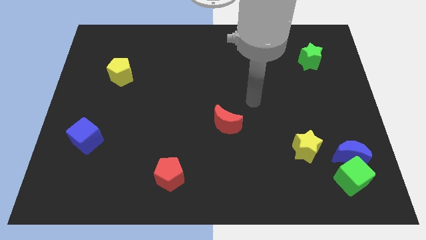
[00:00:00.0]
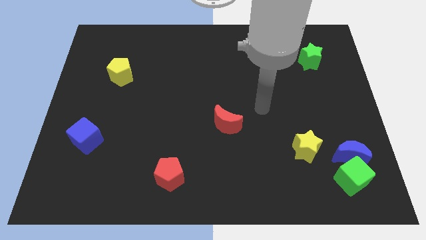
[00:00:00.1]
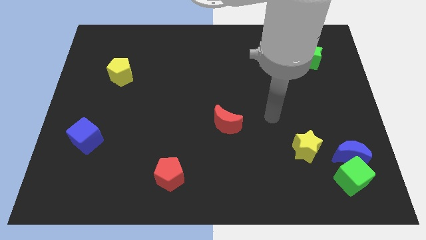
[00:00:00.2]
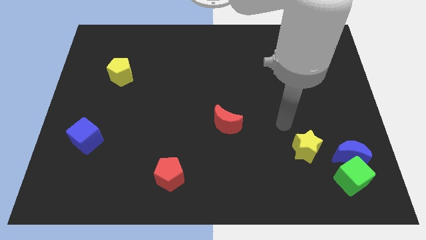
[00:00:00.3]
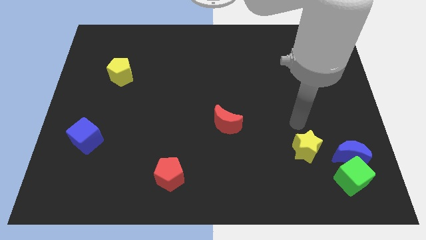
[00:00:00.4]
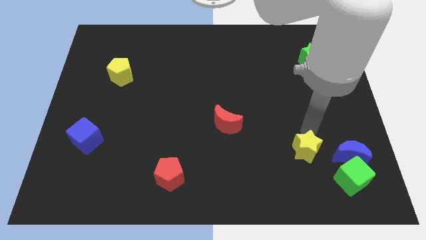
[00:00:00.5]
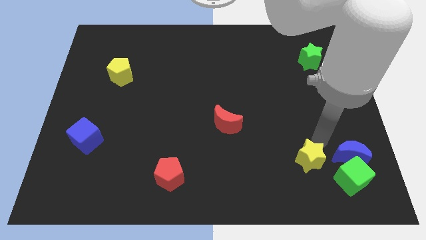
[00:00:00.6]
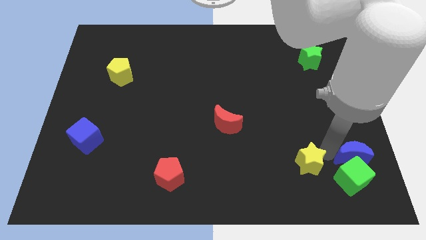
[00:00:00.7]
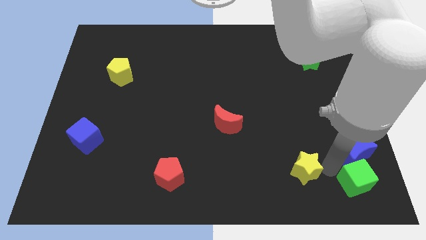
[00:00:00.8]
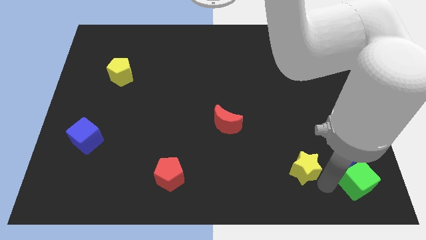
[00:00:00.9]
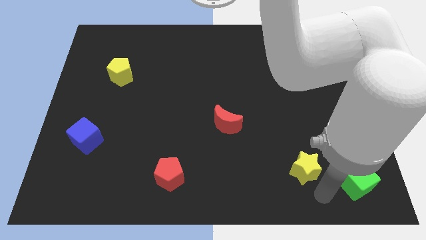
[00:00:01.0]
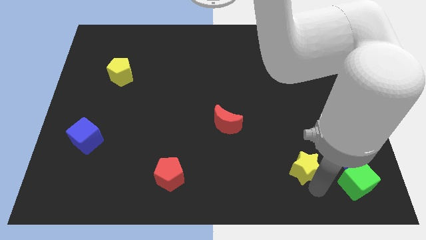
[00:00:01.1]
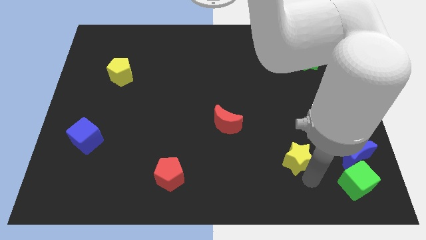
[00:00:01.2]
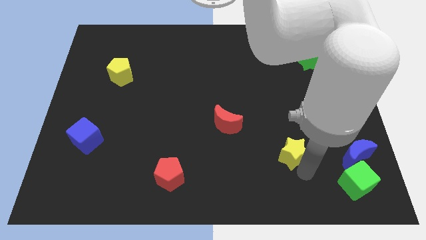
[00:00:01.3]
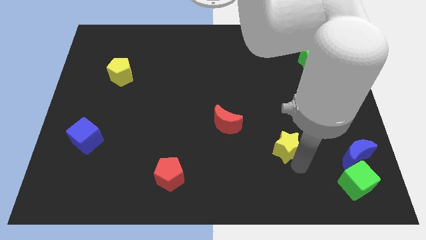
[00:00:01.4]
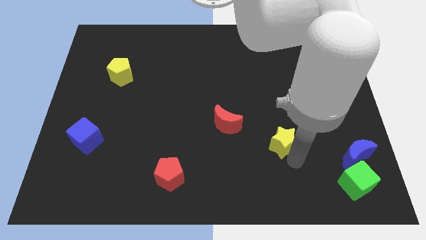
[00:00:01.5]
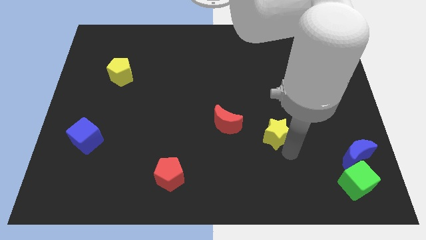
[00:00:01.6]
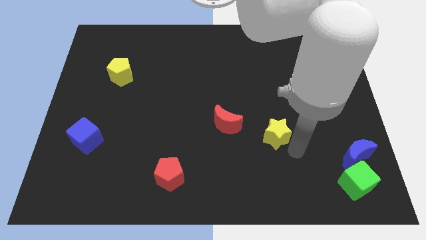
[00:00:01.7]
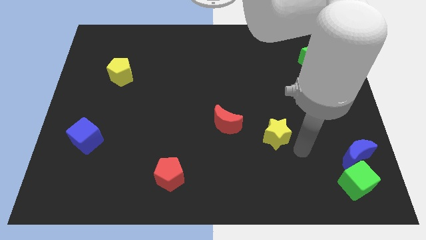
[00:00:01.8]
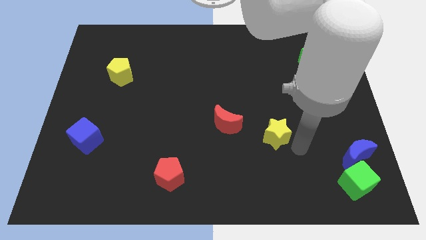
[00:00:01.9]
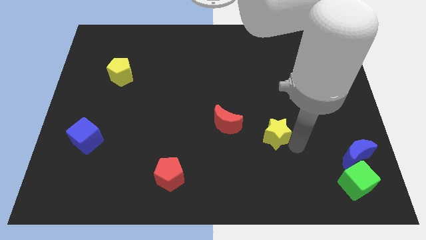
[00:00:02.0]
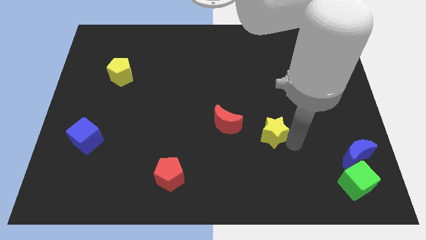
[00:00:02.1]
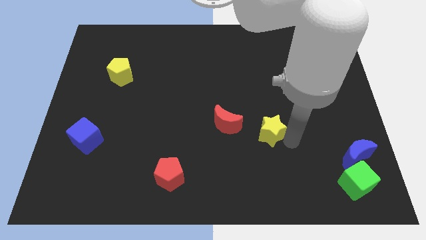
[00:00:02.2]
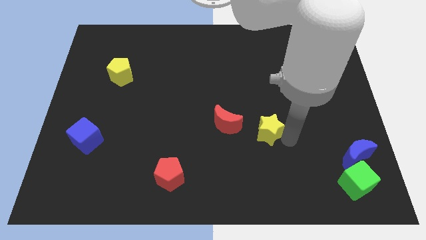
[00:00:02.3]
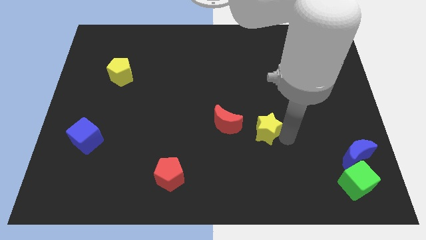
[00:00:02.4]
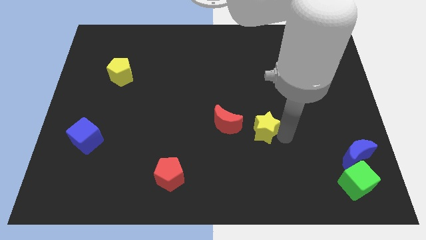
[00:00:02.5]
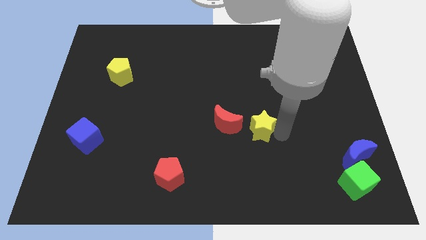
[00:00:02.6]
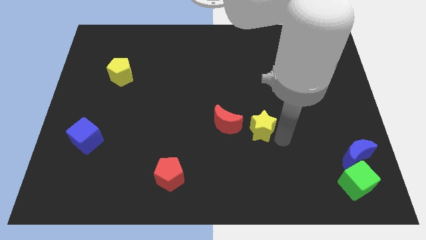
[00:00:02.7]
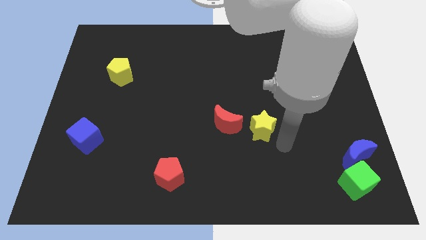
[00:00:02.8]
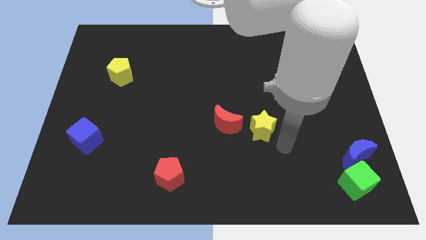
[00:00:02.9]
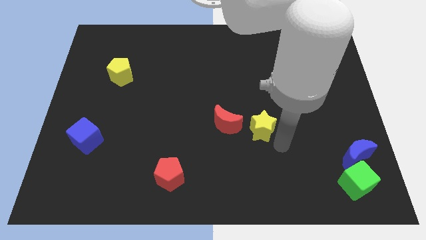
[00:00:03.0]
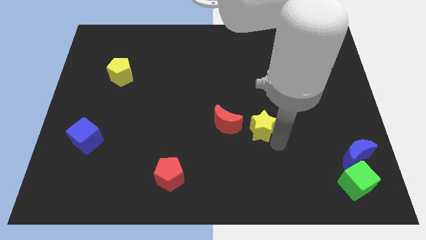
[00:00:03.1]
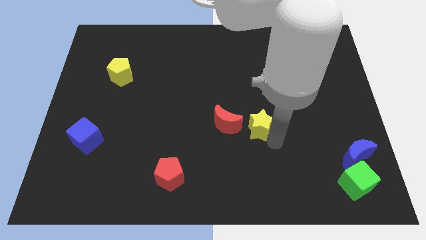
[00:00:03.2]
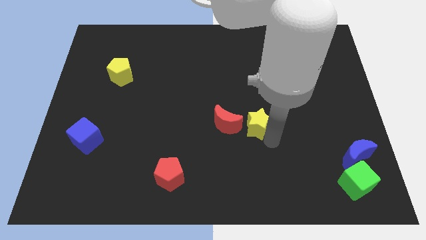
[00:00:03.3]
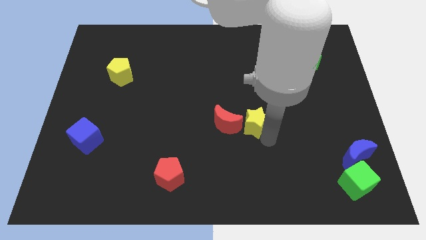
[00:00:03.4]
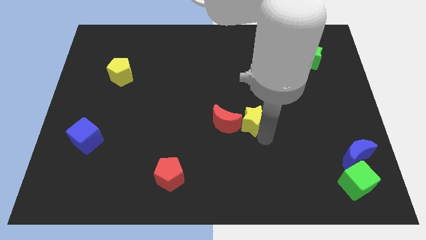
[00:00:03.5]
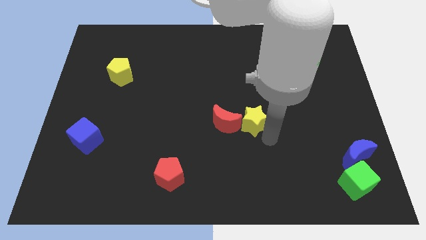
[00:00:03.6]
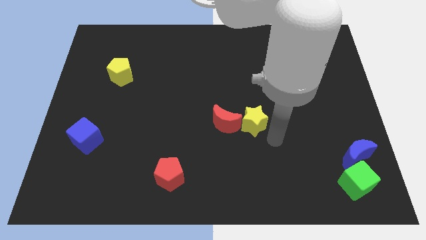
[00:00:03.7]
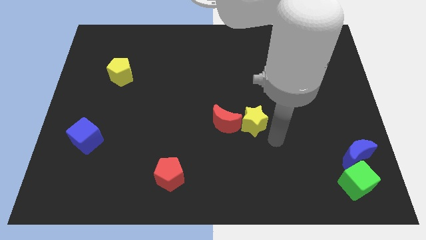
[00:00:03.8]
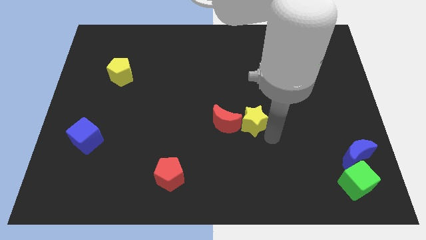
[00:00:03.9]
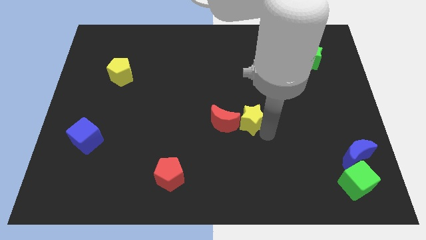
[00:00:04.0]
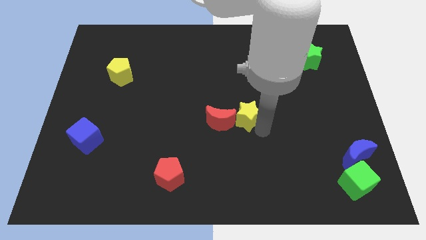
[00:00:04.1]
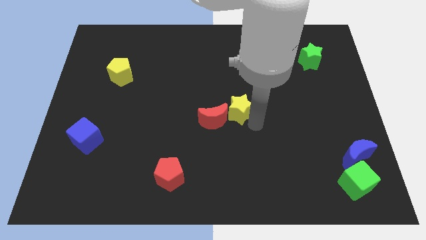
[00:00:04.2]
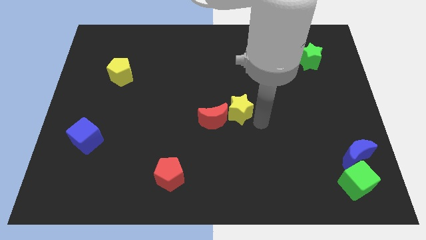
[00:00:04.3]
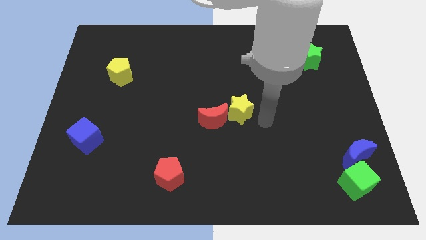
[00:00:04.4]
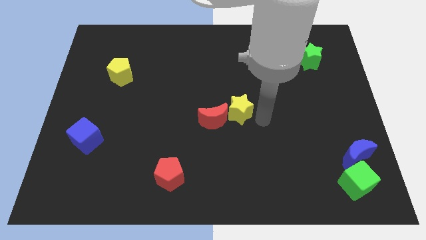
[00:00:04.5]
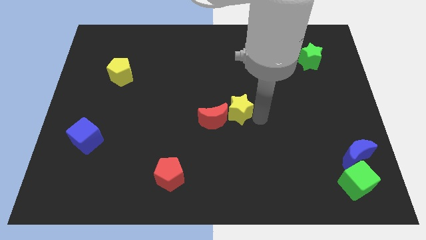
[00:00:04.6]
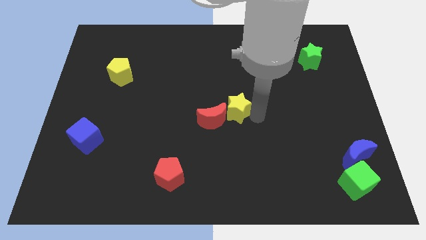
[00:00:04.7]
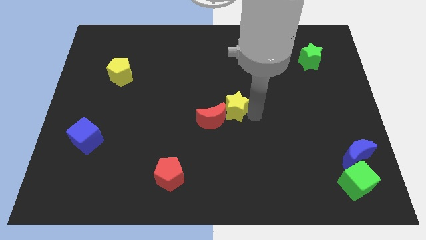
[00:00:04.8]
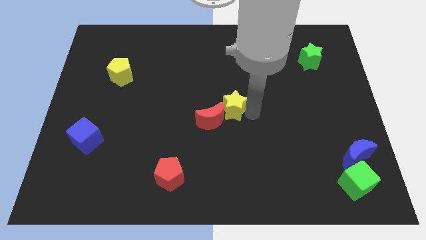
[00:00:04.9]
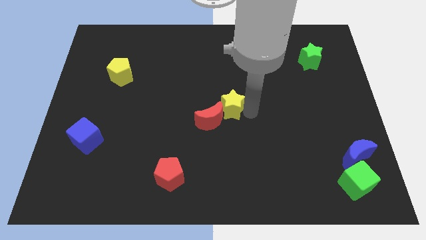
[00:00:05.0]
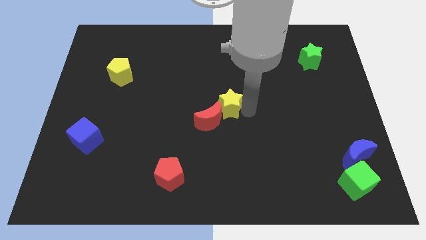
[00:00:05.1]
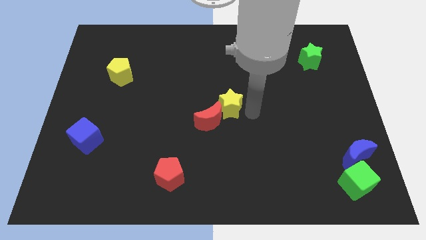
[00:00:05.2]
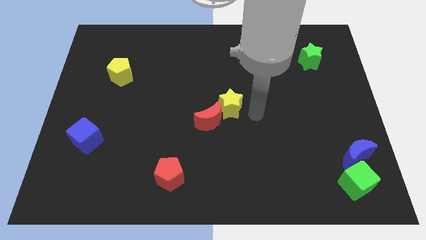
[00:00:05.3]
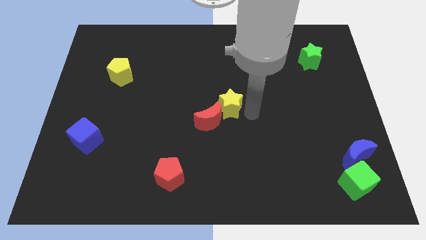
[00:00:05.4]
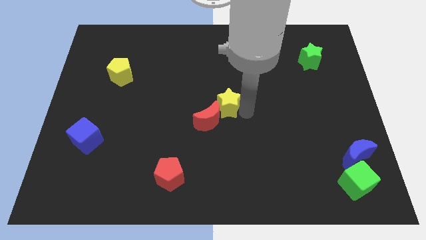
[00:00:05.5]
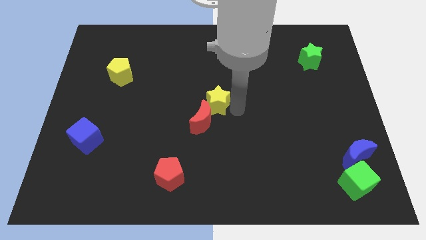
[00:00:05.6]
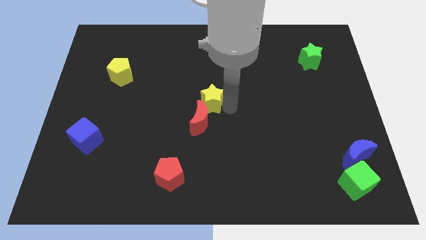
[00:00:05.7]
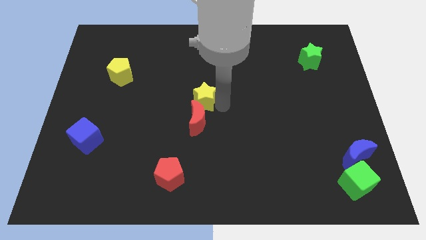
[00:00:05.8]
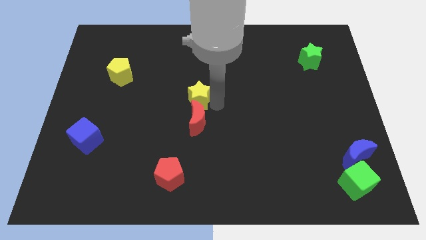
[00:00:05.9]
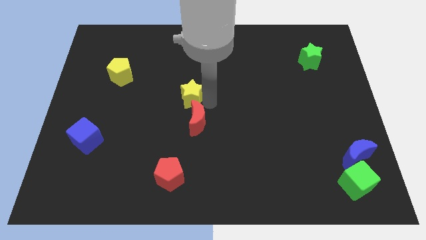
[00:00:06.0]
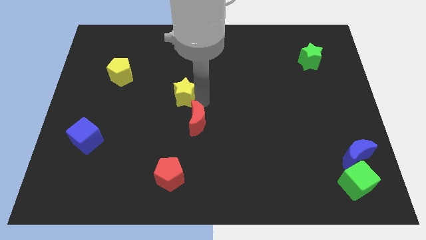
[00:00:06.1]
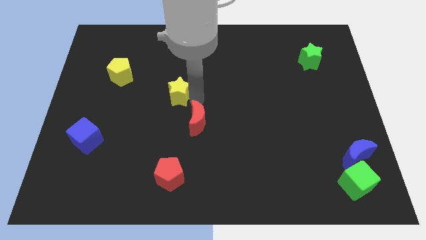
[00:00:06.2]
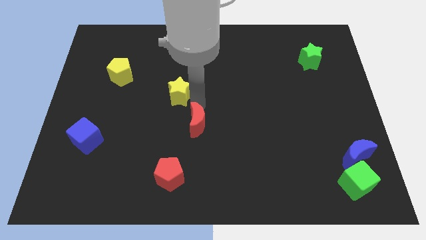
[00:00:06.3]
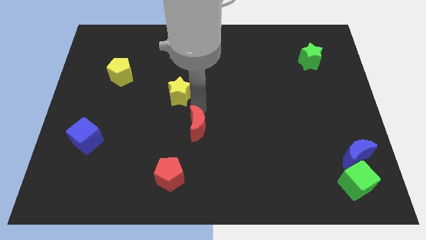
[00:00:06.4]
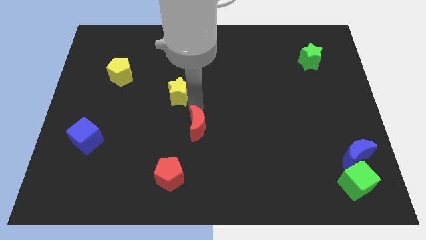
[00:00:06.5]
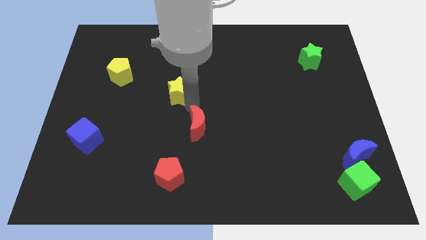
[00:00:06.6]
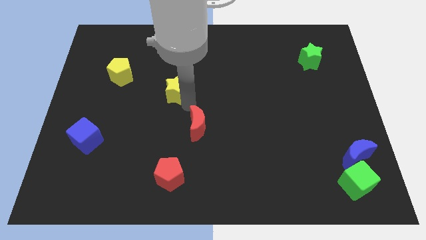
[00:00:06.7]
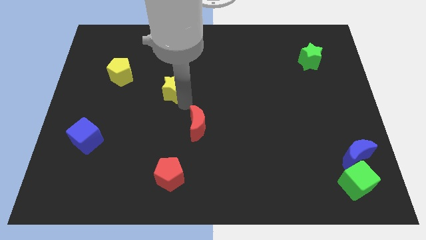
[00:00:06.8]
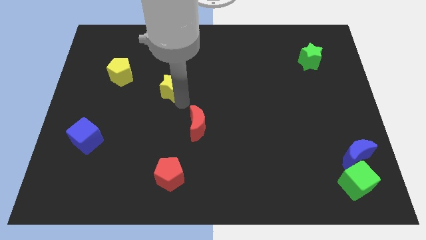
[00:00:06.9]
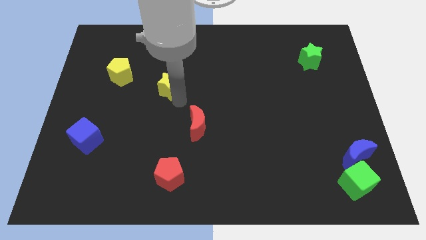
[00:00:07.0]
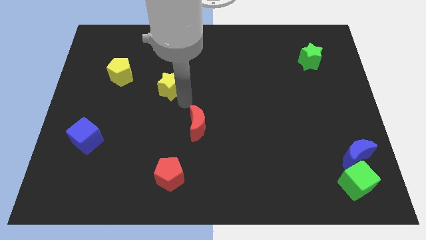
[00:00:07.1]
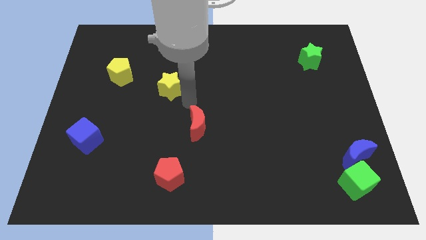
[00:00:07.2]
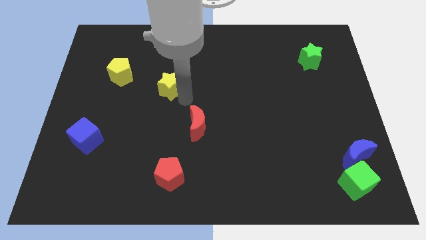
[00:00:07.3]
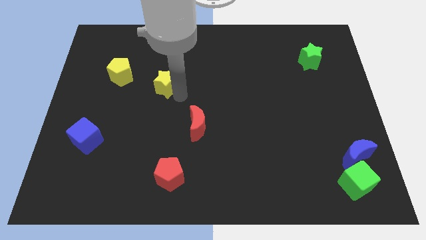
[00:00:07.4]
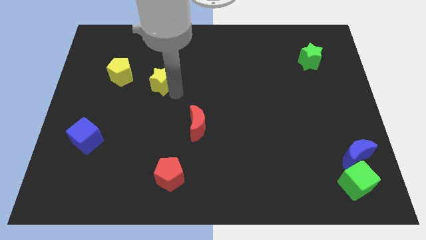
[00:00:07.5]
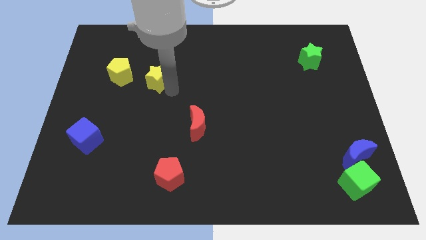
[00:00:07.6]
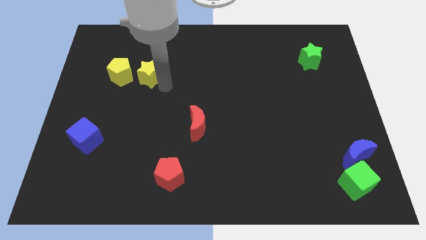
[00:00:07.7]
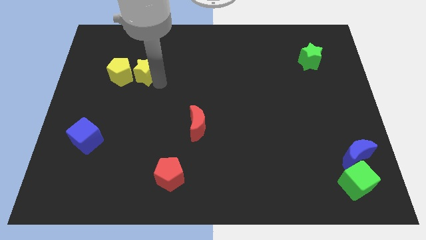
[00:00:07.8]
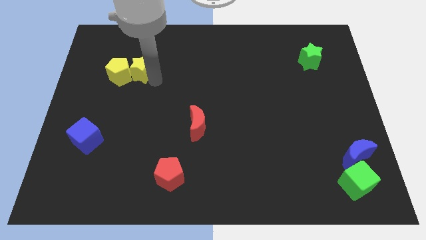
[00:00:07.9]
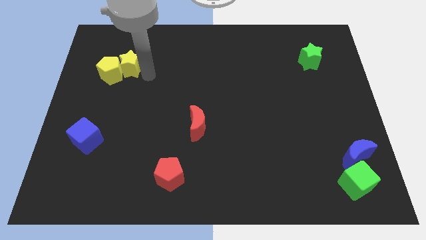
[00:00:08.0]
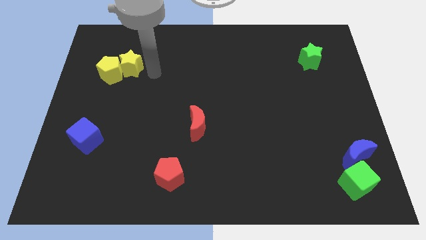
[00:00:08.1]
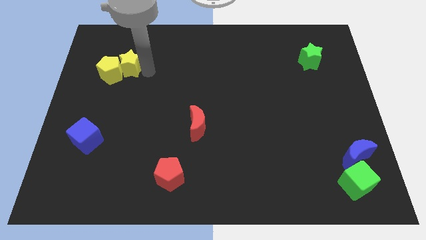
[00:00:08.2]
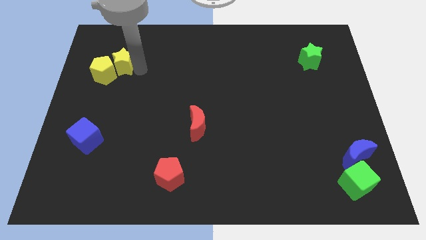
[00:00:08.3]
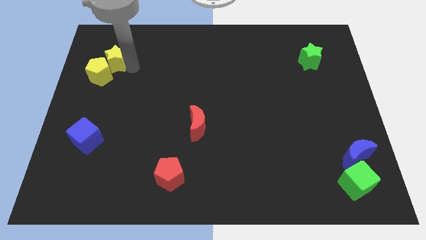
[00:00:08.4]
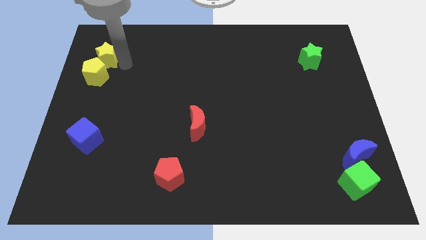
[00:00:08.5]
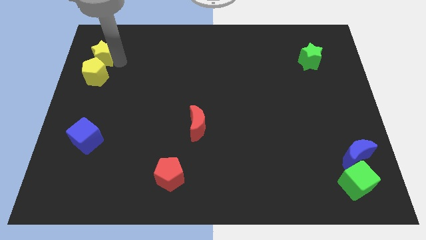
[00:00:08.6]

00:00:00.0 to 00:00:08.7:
put the yellow star to the top left side of the yellow pentagon
